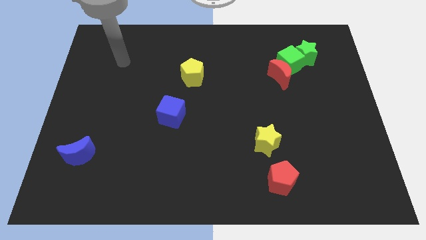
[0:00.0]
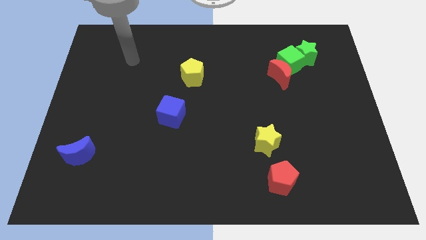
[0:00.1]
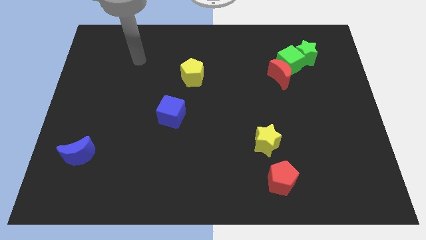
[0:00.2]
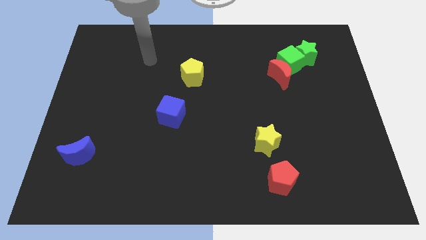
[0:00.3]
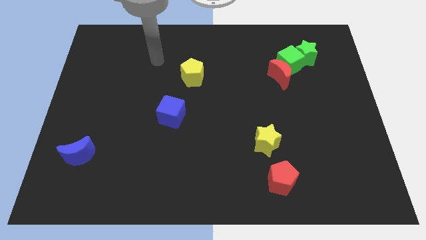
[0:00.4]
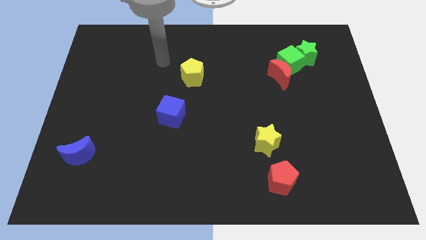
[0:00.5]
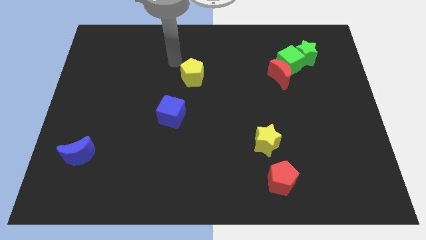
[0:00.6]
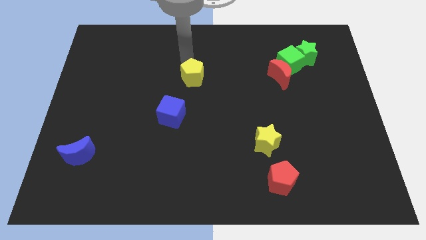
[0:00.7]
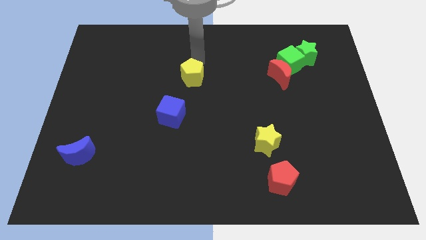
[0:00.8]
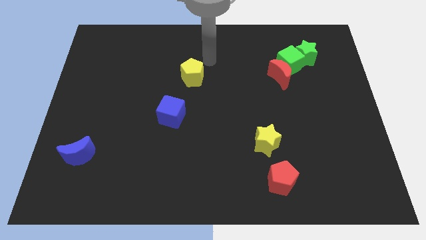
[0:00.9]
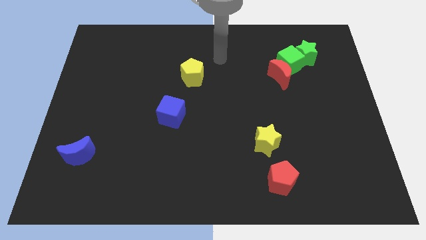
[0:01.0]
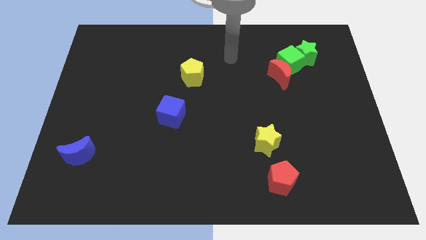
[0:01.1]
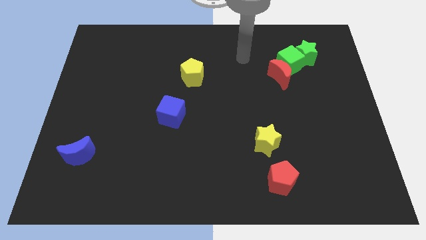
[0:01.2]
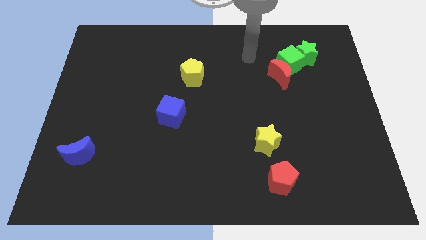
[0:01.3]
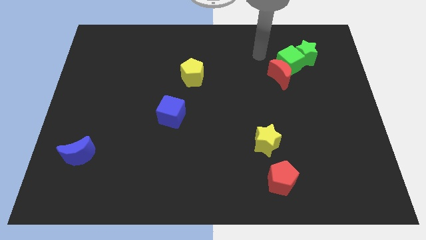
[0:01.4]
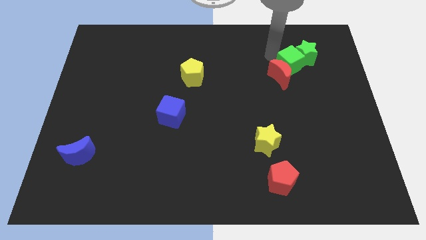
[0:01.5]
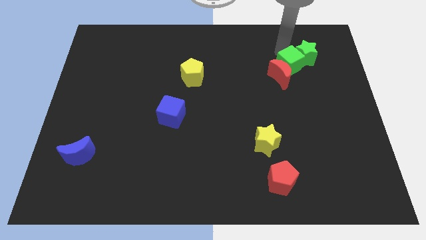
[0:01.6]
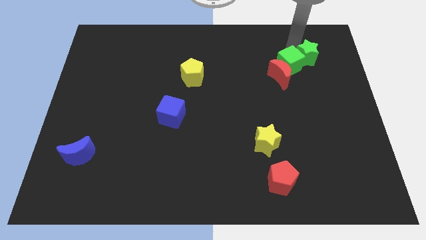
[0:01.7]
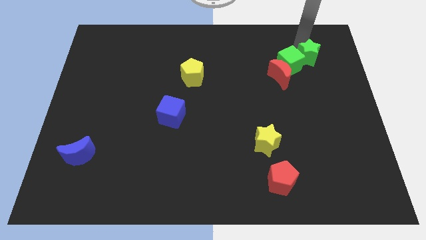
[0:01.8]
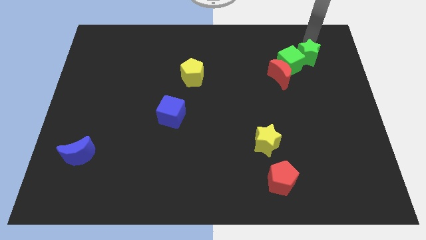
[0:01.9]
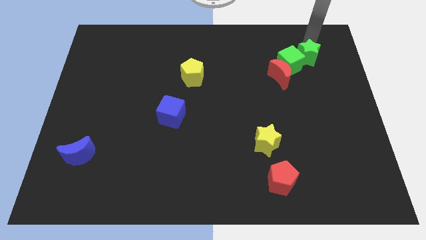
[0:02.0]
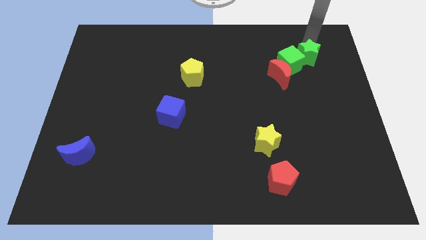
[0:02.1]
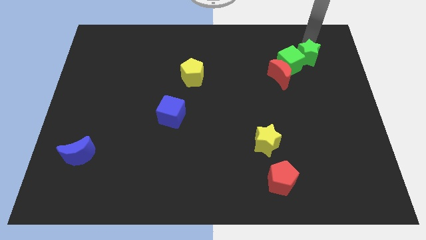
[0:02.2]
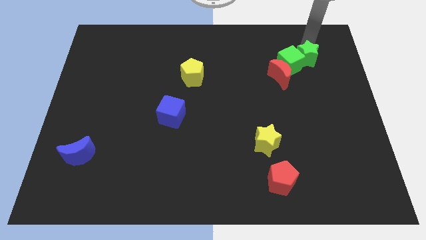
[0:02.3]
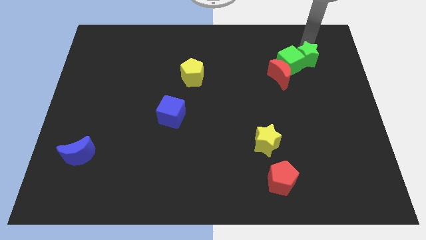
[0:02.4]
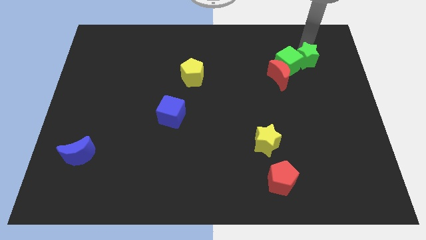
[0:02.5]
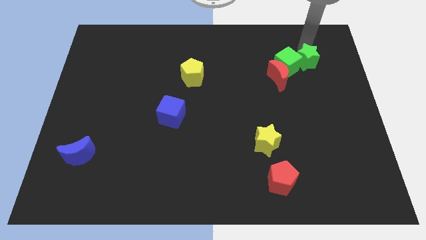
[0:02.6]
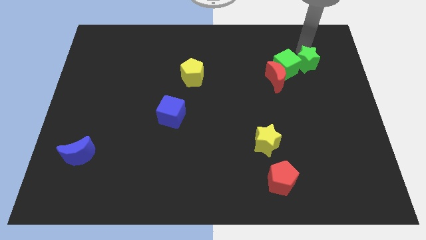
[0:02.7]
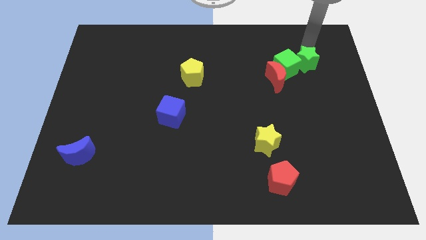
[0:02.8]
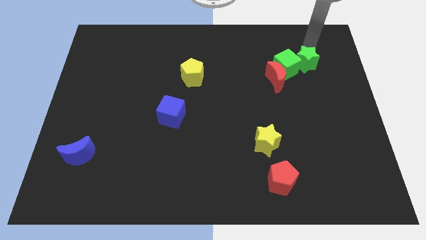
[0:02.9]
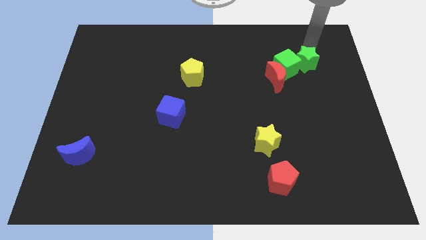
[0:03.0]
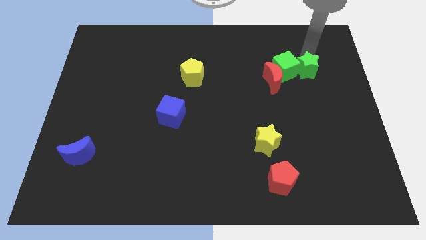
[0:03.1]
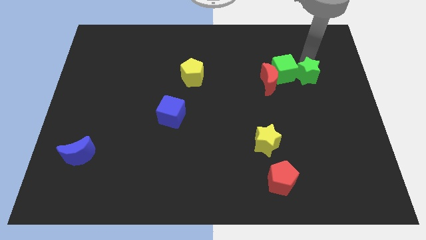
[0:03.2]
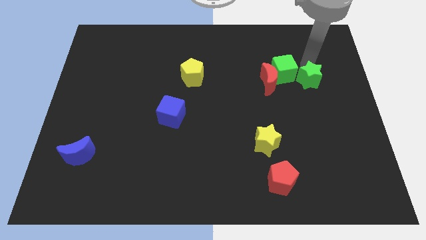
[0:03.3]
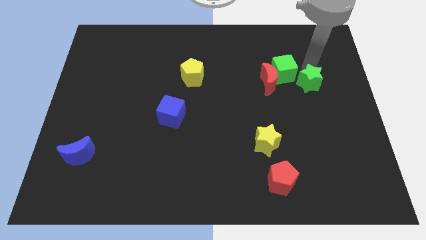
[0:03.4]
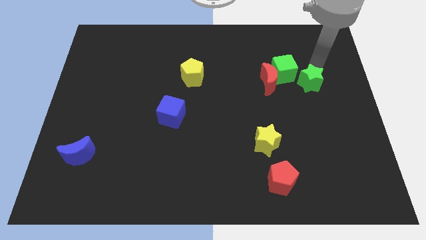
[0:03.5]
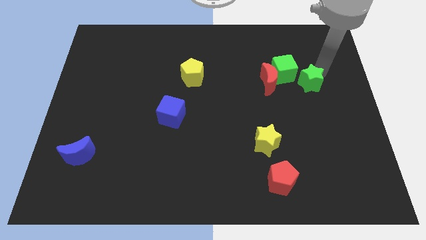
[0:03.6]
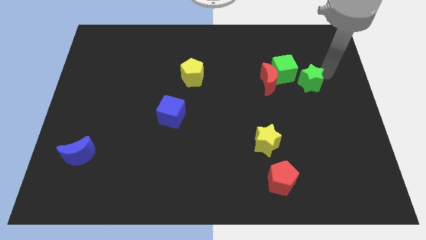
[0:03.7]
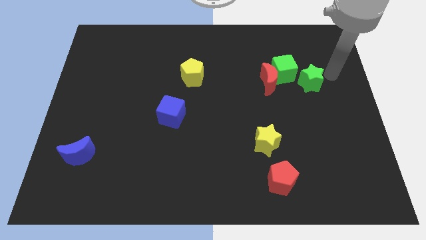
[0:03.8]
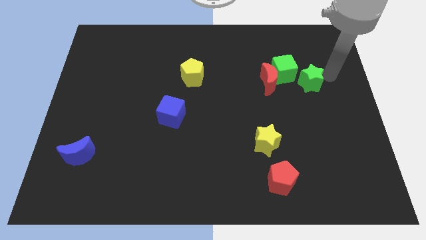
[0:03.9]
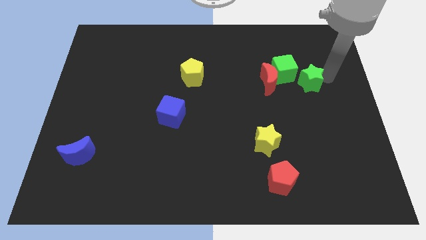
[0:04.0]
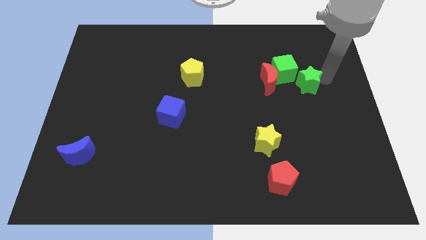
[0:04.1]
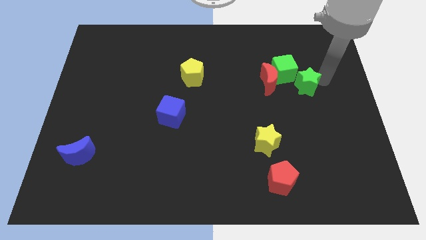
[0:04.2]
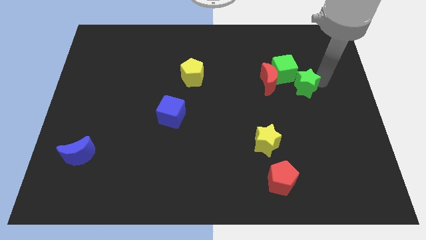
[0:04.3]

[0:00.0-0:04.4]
push the green star slightly down and then to the left

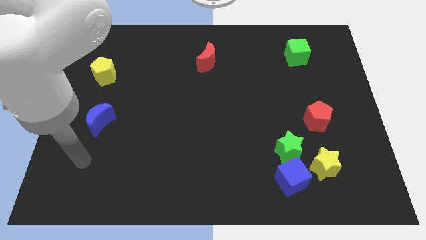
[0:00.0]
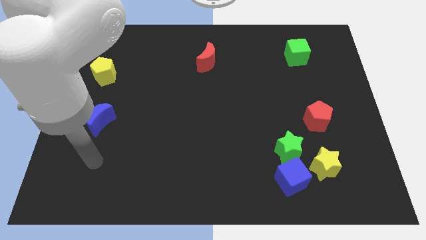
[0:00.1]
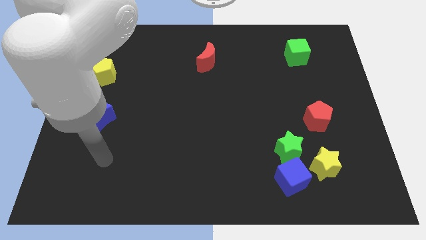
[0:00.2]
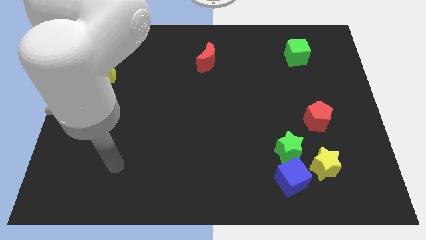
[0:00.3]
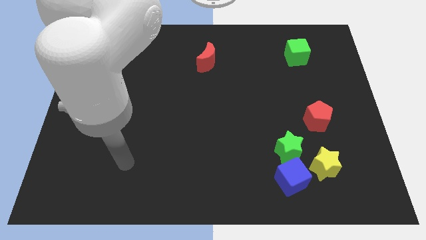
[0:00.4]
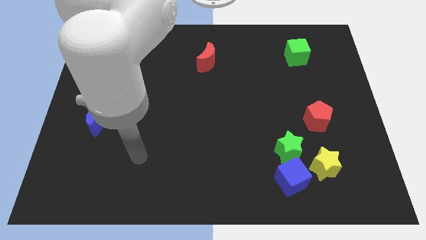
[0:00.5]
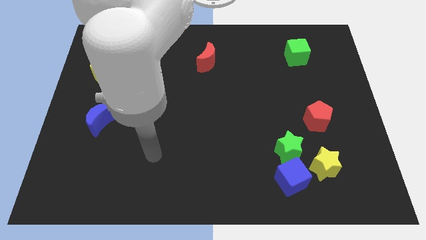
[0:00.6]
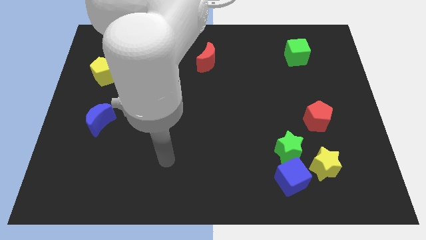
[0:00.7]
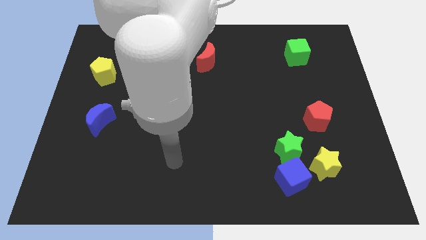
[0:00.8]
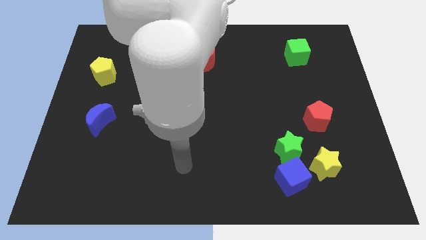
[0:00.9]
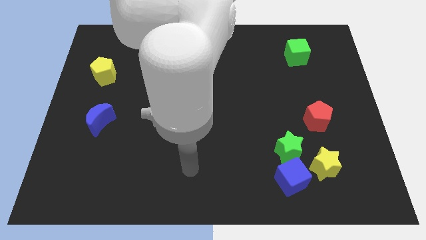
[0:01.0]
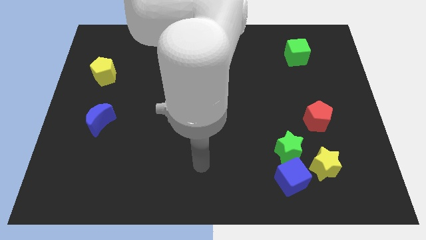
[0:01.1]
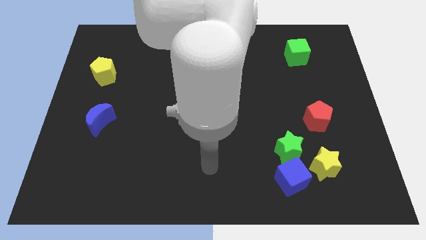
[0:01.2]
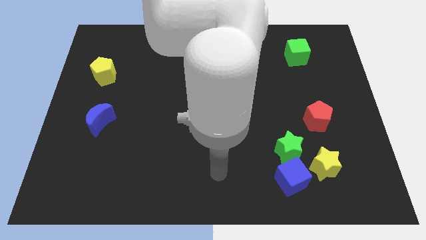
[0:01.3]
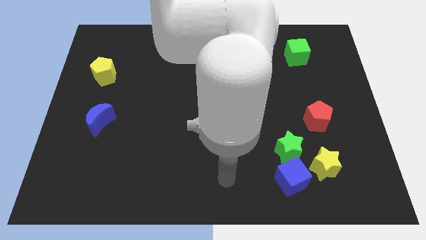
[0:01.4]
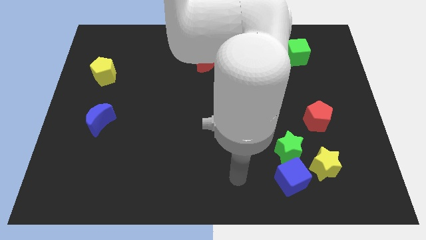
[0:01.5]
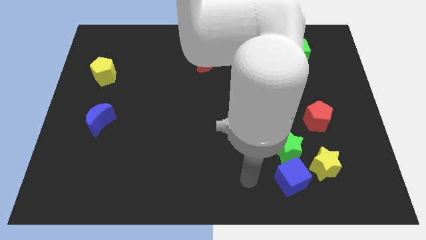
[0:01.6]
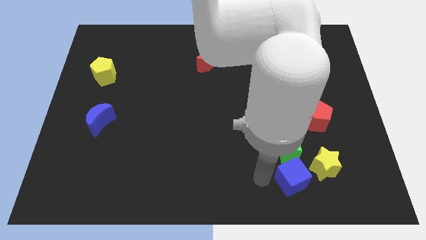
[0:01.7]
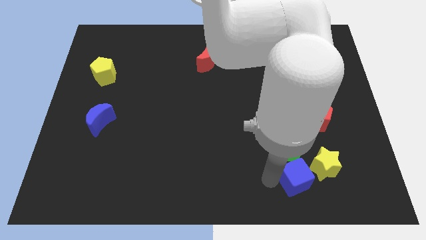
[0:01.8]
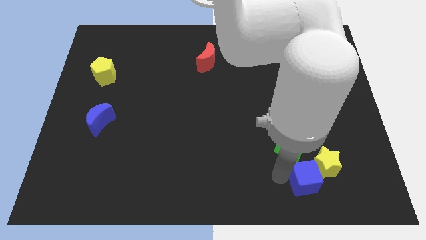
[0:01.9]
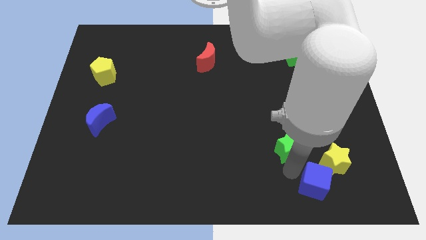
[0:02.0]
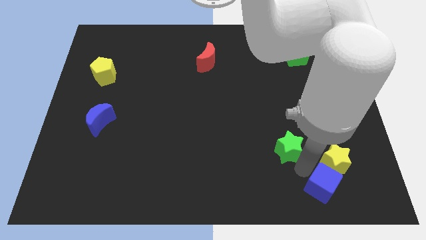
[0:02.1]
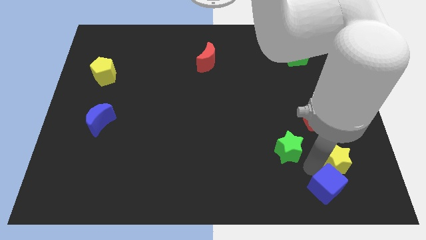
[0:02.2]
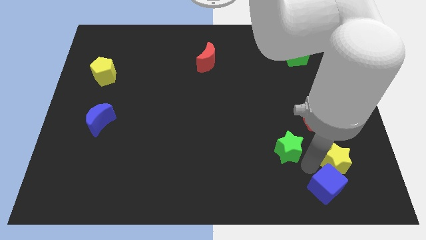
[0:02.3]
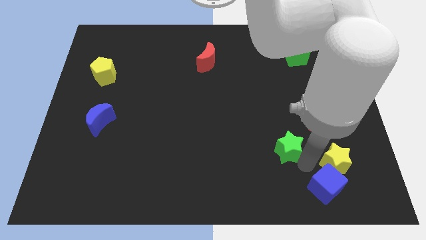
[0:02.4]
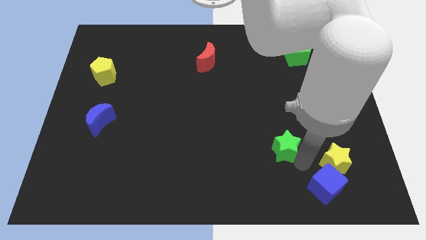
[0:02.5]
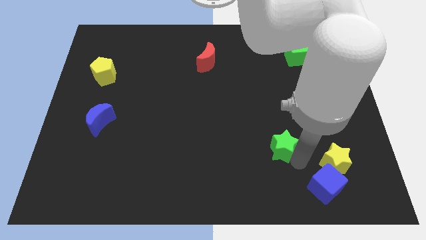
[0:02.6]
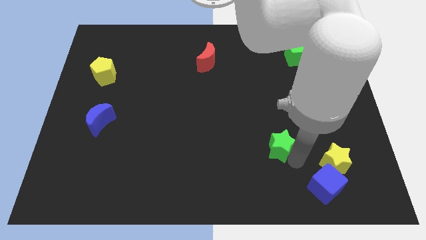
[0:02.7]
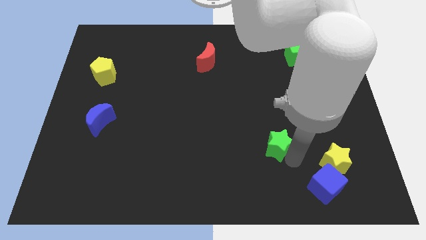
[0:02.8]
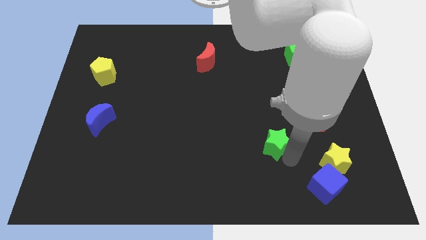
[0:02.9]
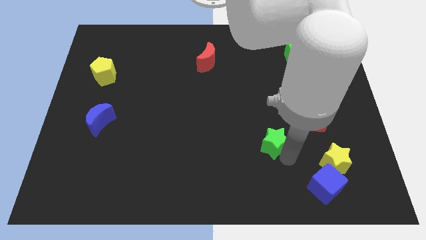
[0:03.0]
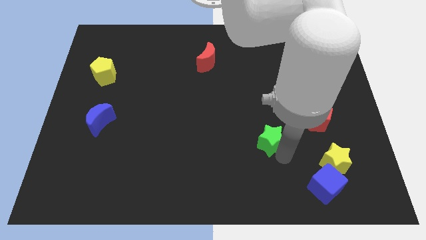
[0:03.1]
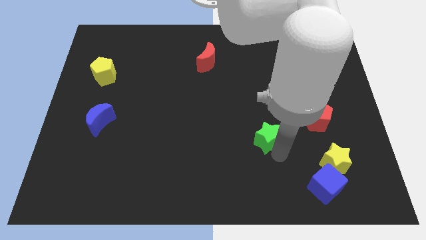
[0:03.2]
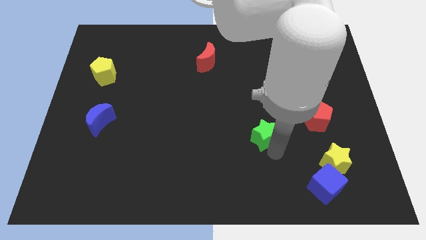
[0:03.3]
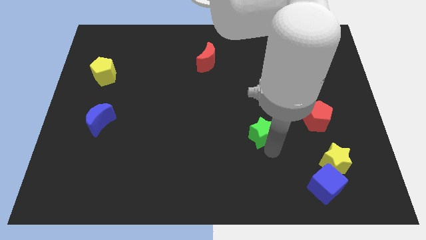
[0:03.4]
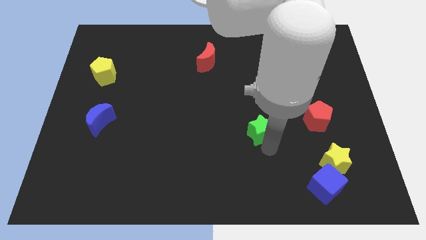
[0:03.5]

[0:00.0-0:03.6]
push the green star slightly upwards and then to the left
